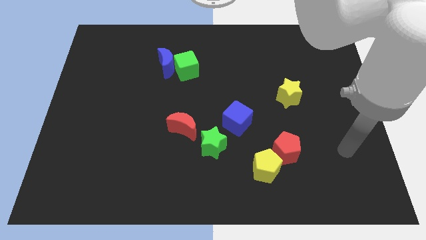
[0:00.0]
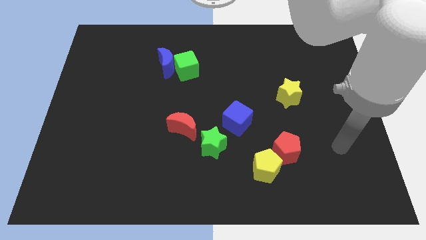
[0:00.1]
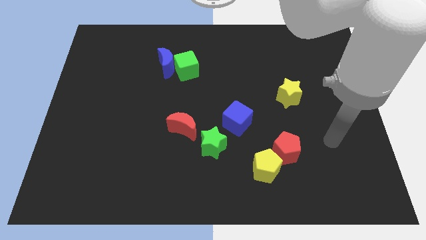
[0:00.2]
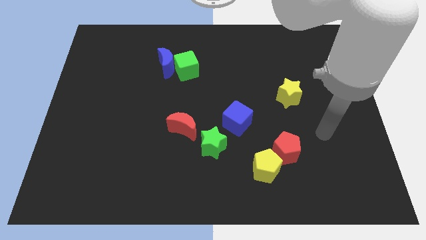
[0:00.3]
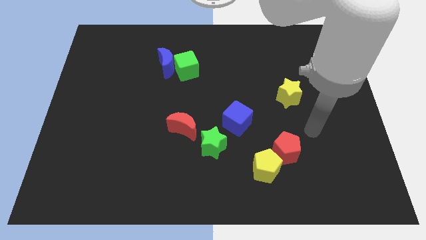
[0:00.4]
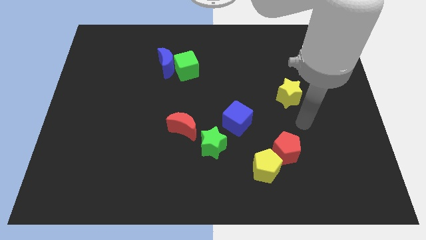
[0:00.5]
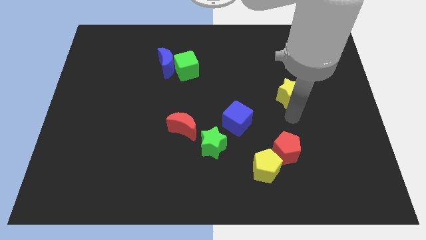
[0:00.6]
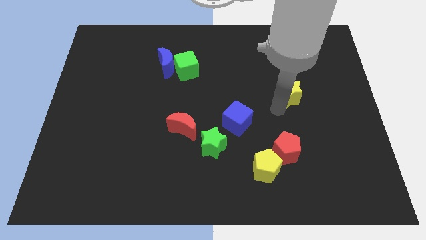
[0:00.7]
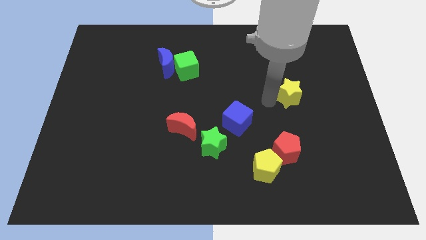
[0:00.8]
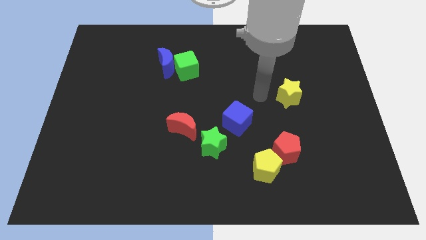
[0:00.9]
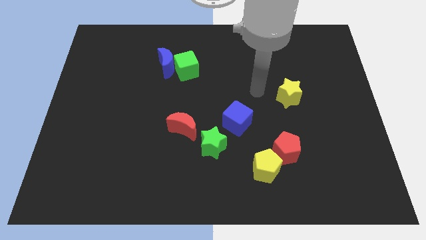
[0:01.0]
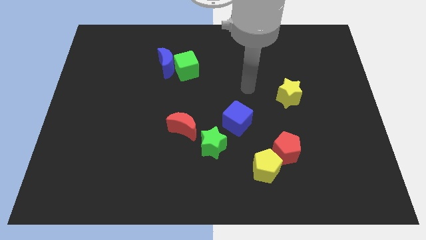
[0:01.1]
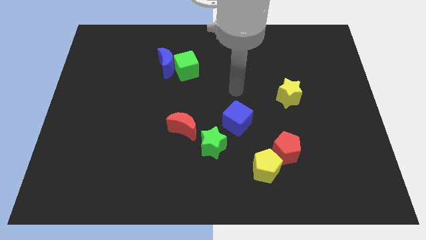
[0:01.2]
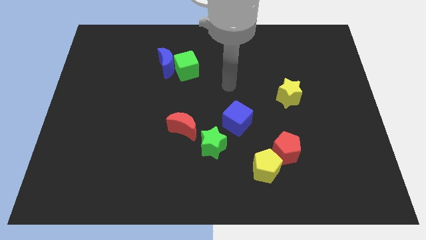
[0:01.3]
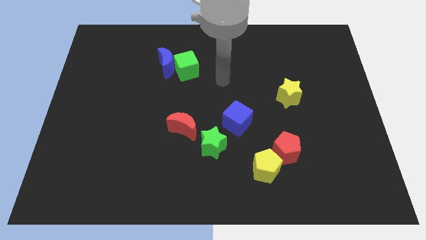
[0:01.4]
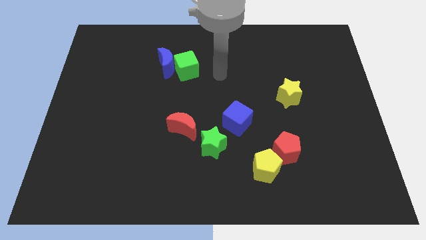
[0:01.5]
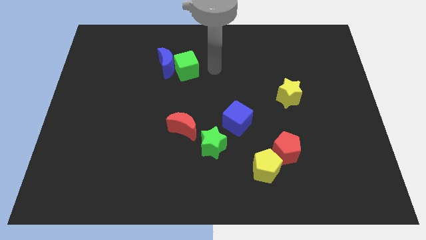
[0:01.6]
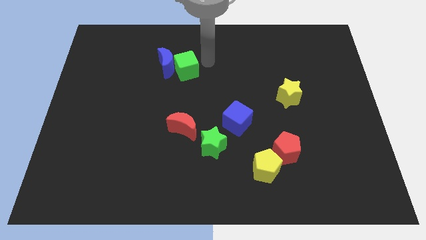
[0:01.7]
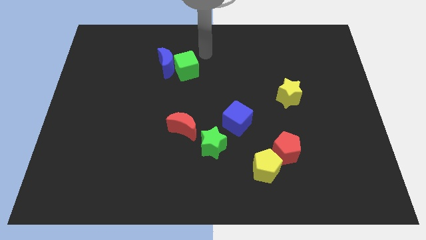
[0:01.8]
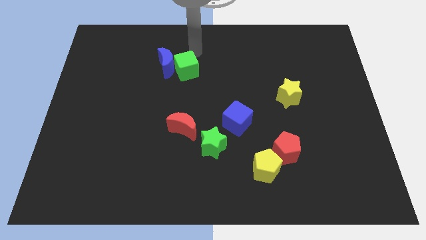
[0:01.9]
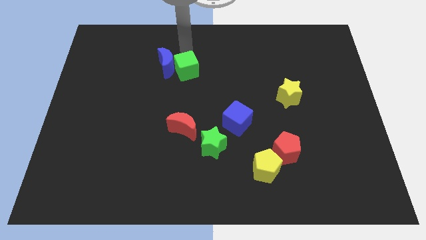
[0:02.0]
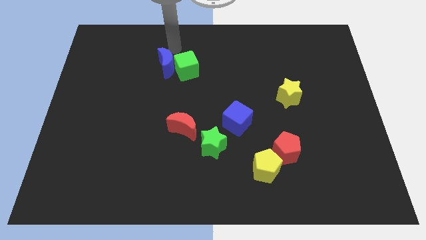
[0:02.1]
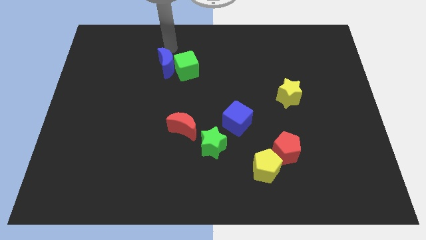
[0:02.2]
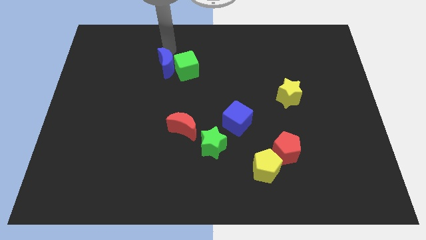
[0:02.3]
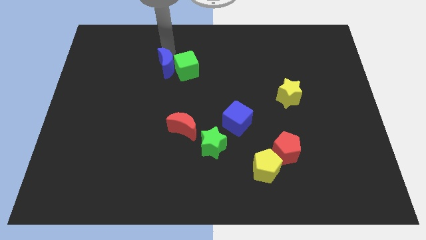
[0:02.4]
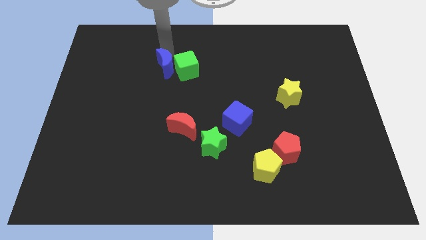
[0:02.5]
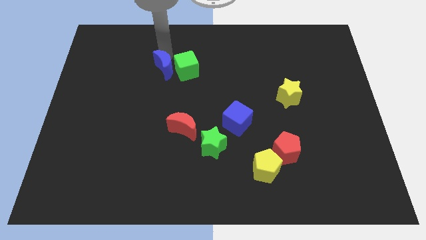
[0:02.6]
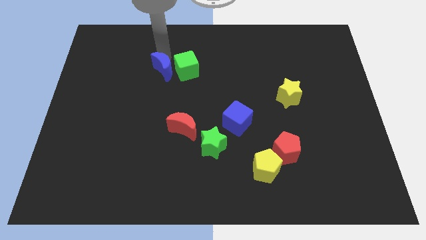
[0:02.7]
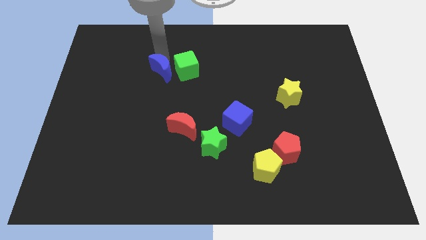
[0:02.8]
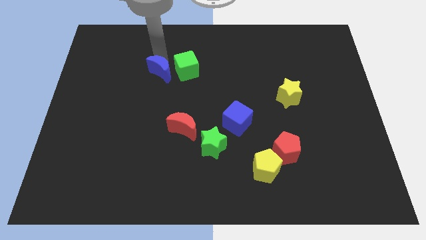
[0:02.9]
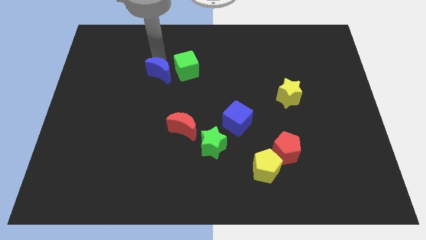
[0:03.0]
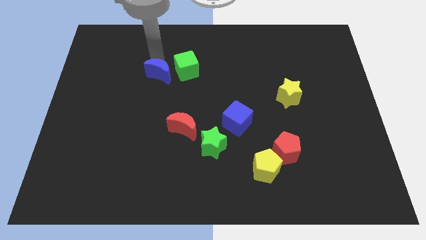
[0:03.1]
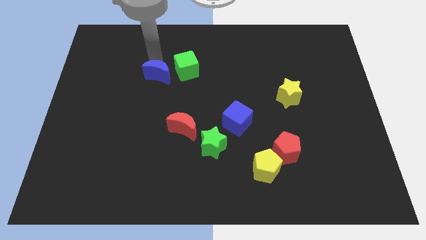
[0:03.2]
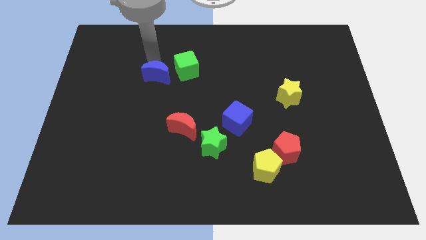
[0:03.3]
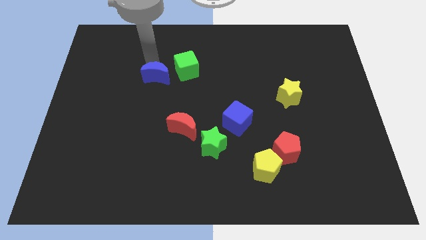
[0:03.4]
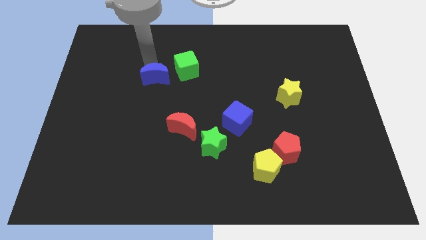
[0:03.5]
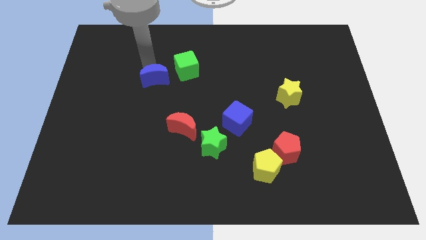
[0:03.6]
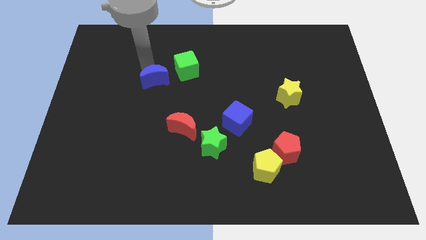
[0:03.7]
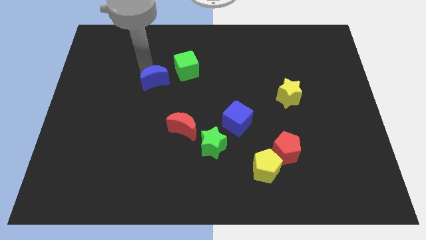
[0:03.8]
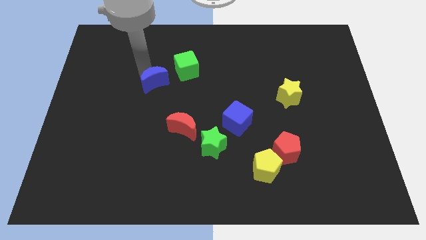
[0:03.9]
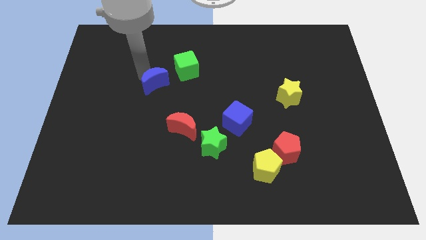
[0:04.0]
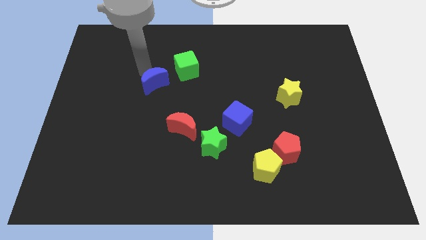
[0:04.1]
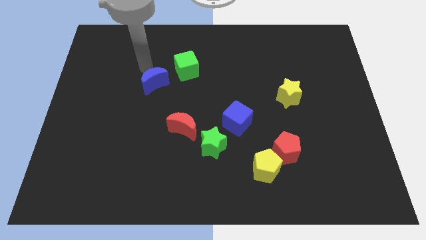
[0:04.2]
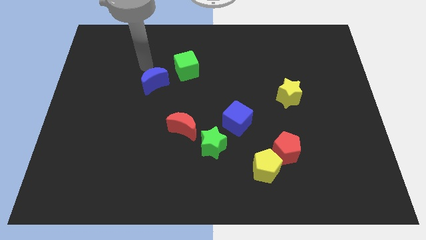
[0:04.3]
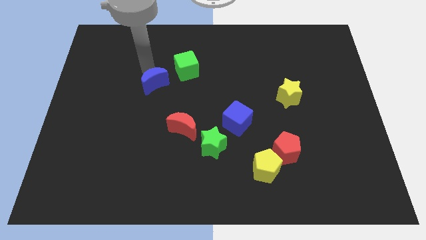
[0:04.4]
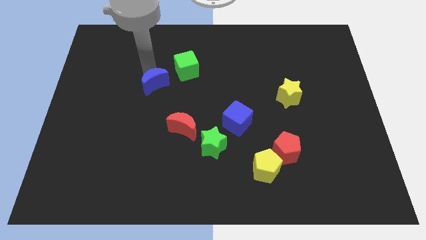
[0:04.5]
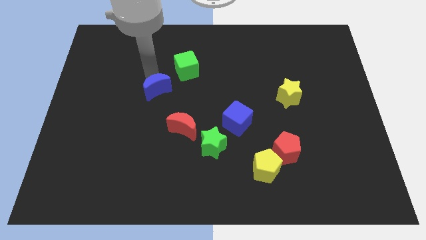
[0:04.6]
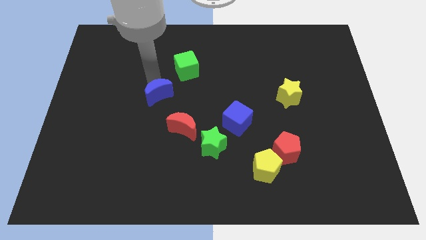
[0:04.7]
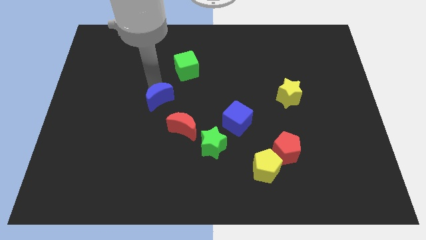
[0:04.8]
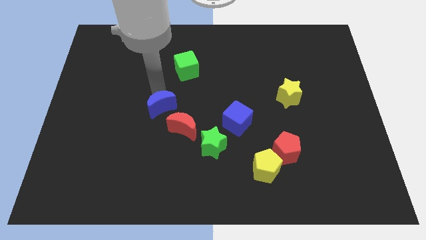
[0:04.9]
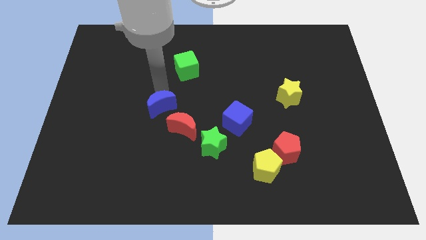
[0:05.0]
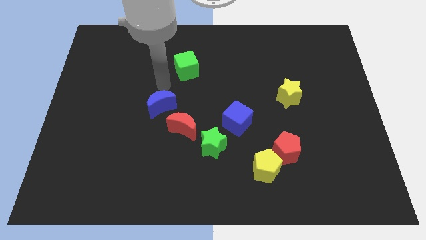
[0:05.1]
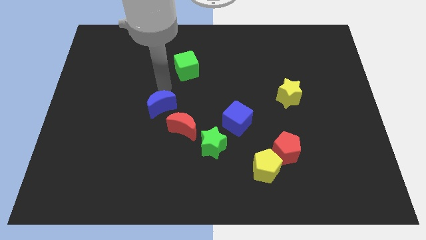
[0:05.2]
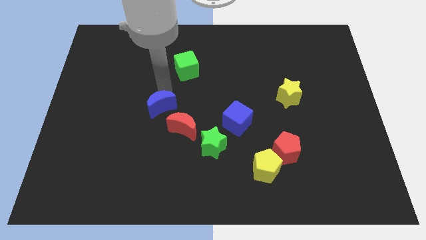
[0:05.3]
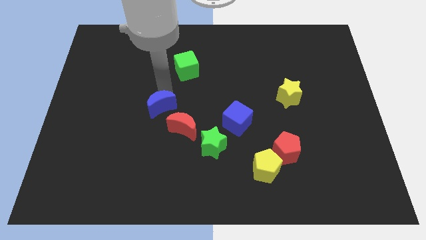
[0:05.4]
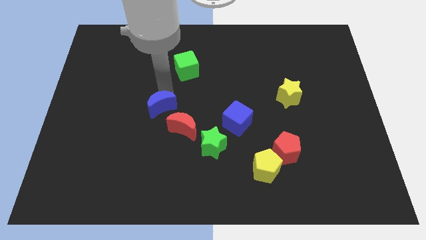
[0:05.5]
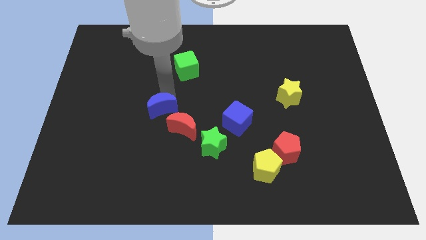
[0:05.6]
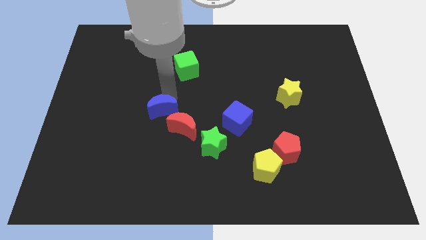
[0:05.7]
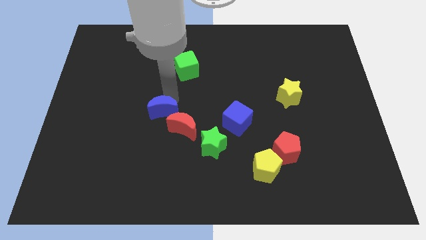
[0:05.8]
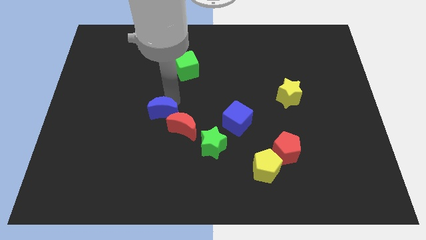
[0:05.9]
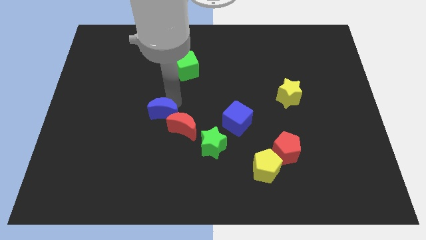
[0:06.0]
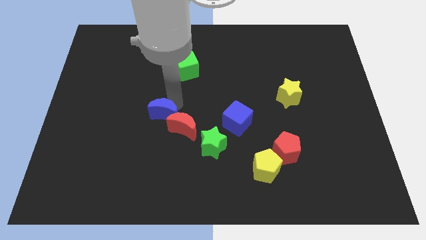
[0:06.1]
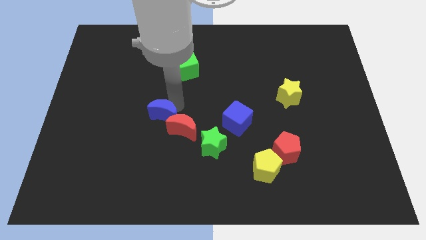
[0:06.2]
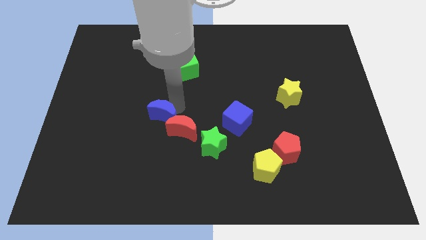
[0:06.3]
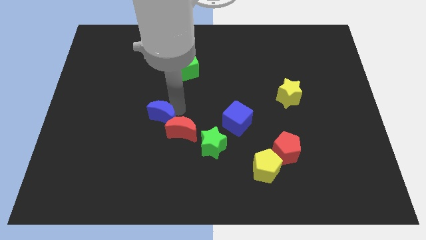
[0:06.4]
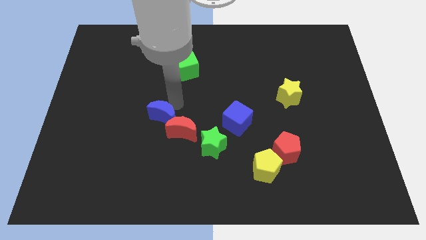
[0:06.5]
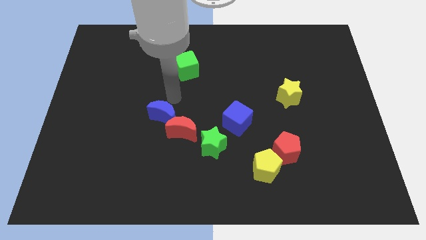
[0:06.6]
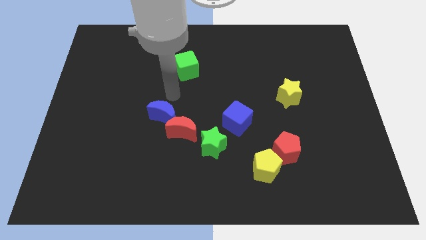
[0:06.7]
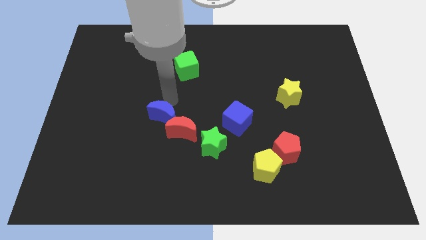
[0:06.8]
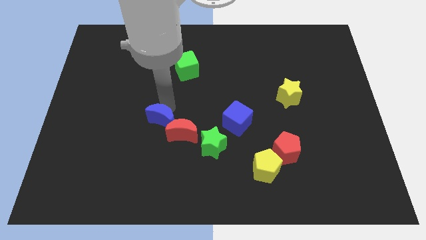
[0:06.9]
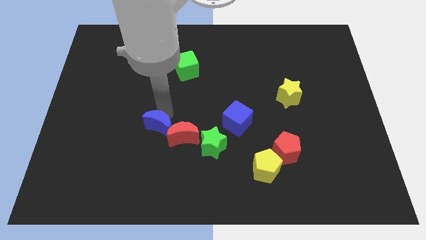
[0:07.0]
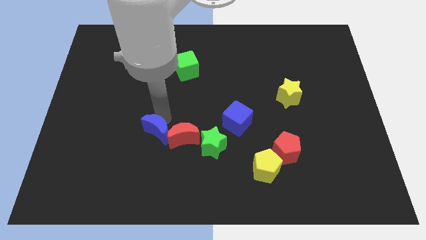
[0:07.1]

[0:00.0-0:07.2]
move the blue moon downwards

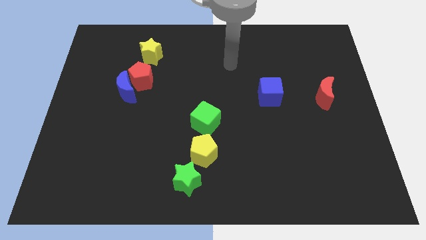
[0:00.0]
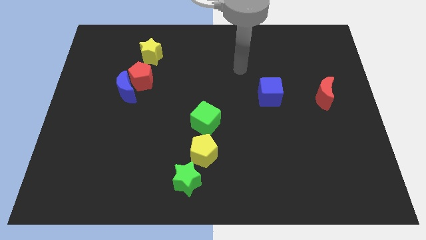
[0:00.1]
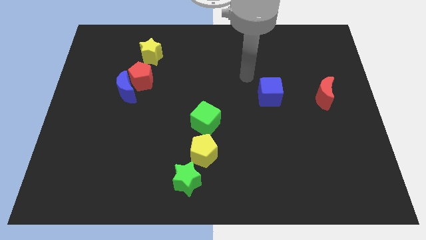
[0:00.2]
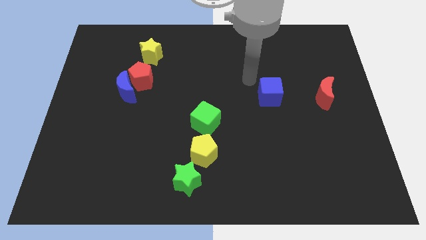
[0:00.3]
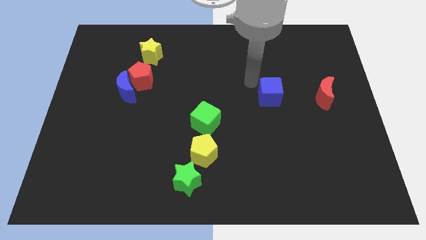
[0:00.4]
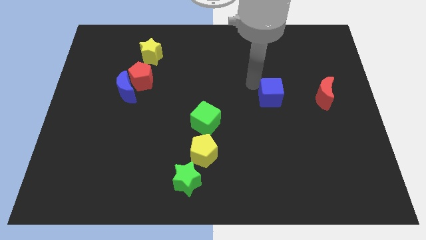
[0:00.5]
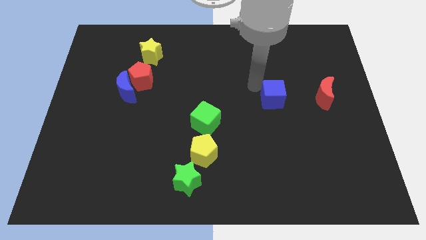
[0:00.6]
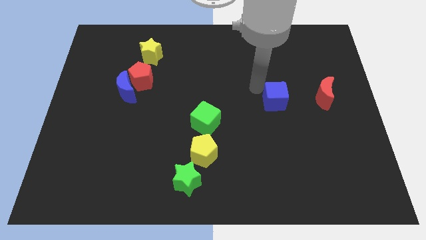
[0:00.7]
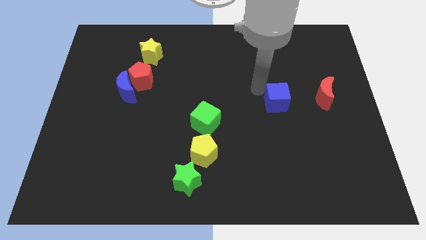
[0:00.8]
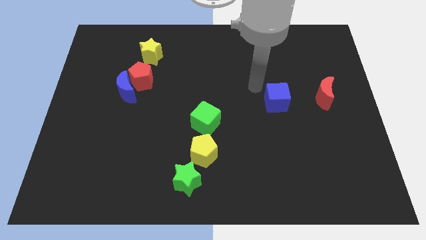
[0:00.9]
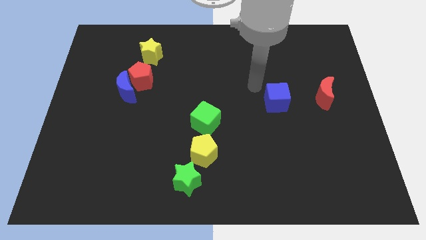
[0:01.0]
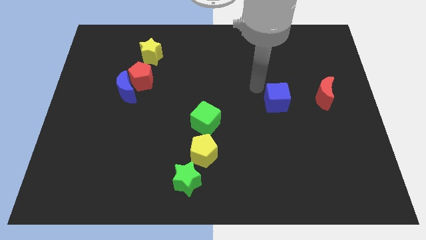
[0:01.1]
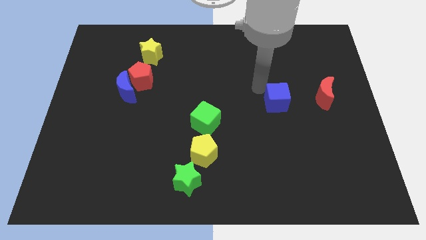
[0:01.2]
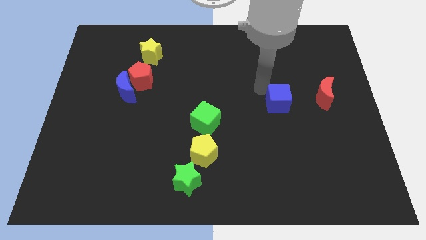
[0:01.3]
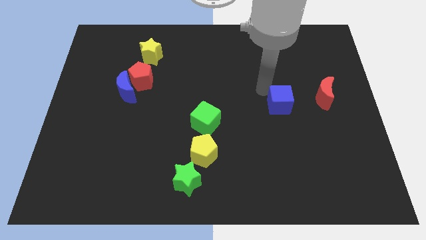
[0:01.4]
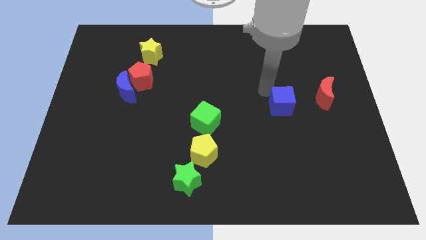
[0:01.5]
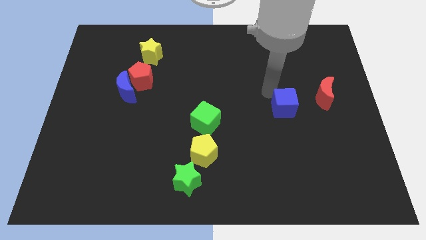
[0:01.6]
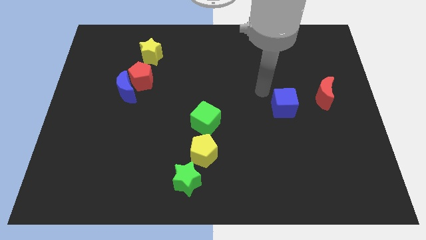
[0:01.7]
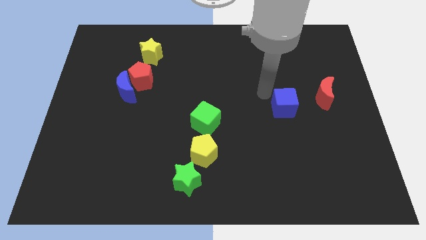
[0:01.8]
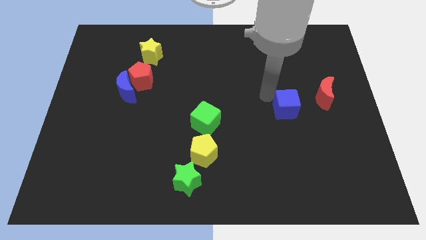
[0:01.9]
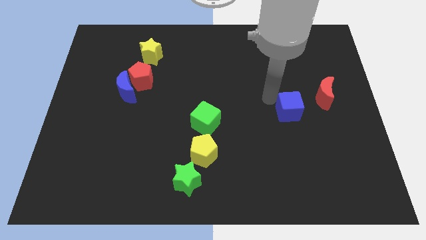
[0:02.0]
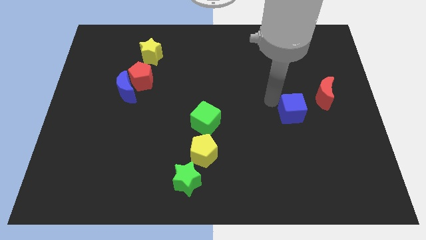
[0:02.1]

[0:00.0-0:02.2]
push the blue cube a little bit down and then to the right
